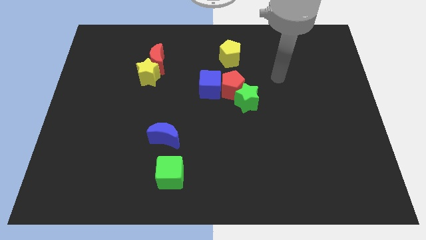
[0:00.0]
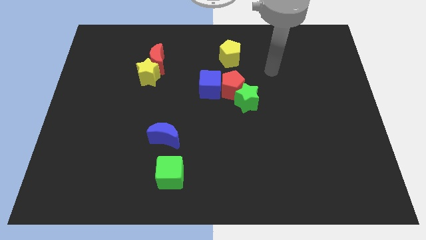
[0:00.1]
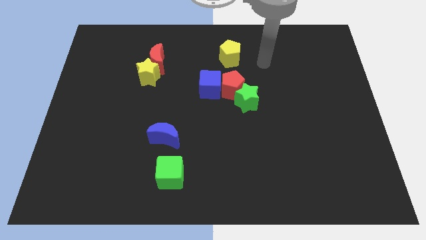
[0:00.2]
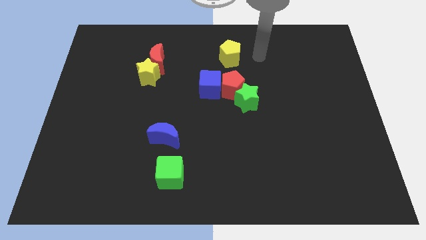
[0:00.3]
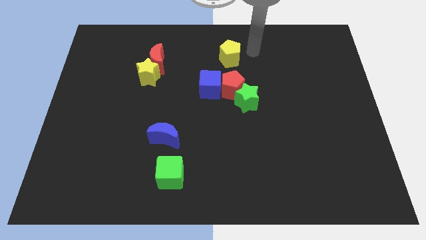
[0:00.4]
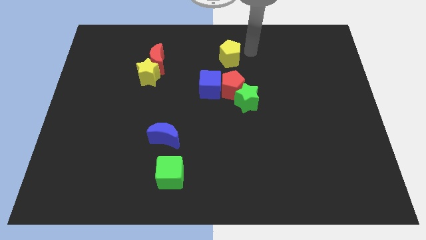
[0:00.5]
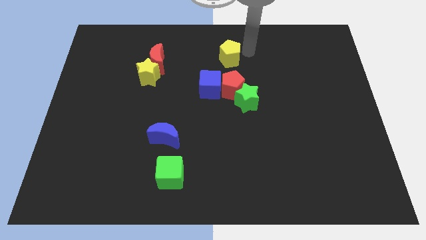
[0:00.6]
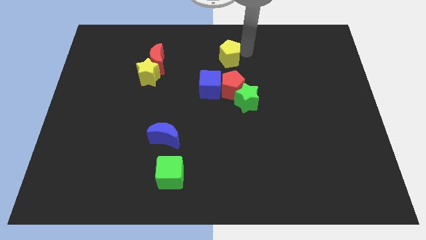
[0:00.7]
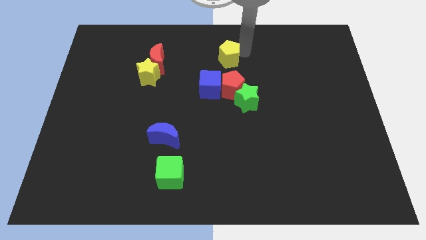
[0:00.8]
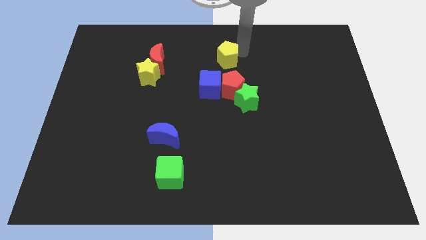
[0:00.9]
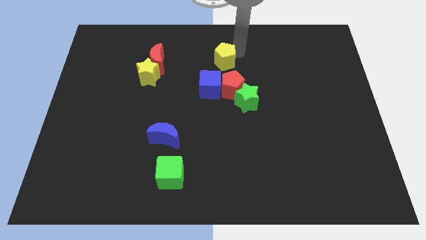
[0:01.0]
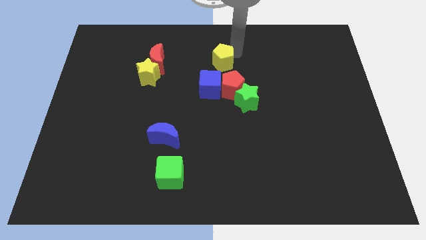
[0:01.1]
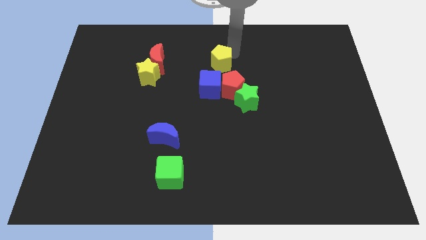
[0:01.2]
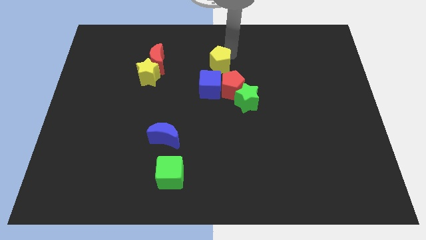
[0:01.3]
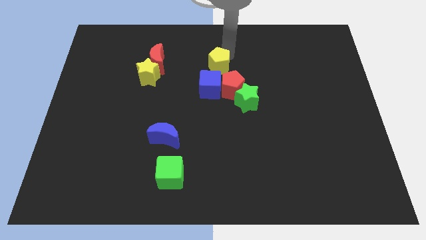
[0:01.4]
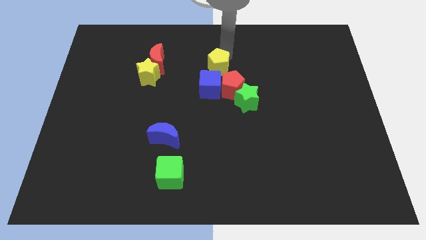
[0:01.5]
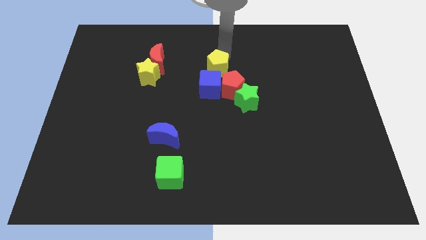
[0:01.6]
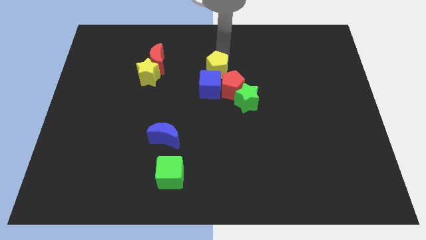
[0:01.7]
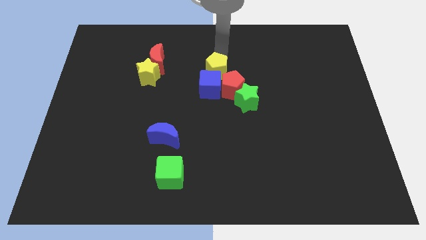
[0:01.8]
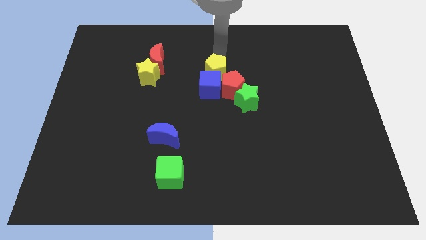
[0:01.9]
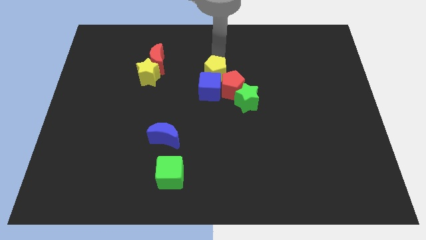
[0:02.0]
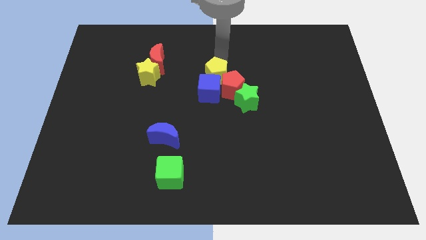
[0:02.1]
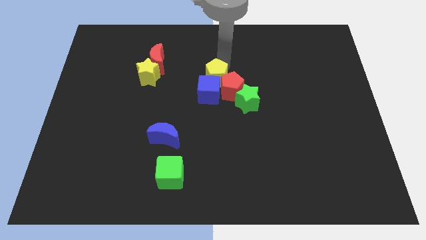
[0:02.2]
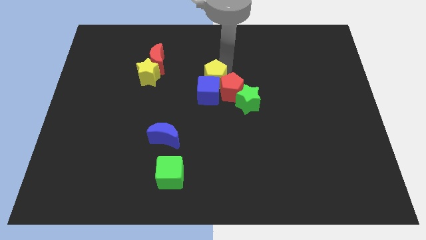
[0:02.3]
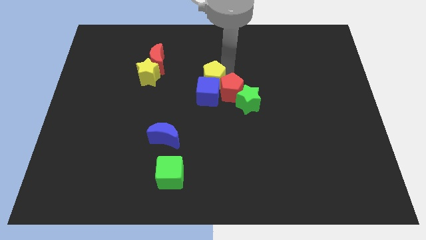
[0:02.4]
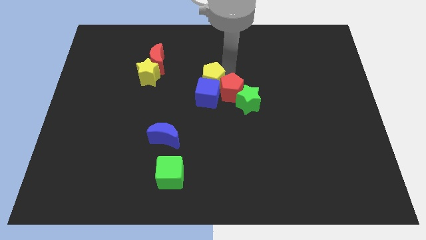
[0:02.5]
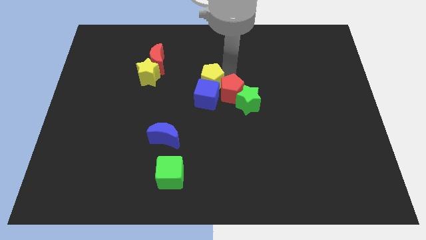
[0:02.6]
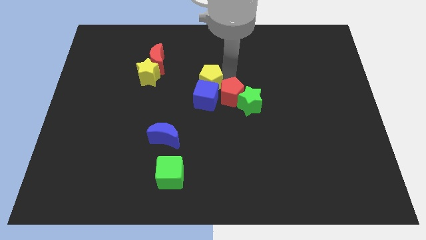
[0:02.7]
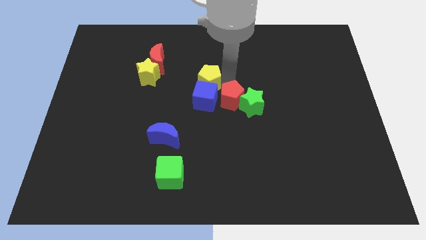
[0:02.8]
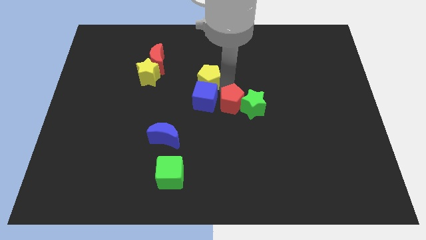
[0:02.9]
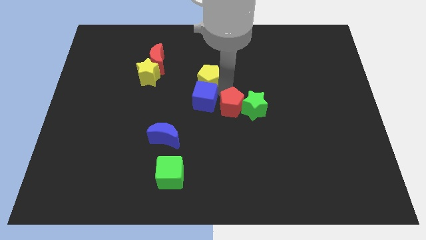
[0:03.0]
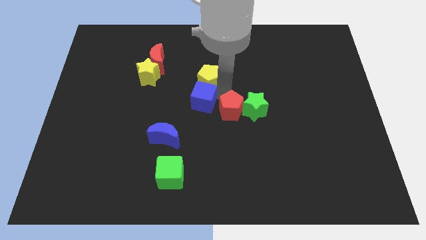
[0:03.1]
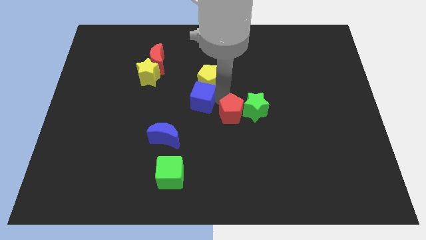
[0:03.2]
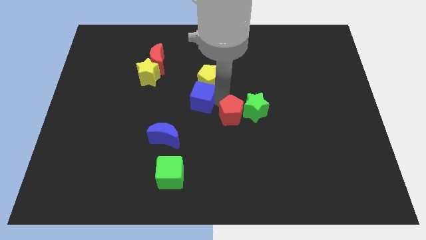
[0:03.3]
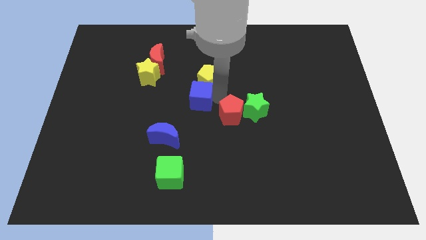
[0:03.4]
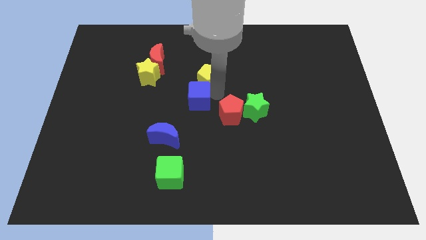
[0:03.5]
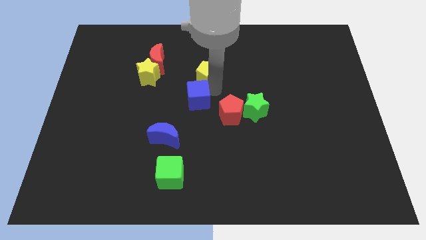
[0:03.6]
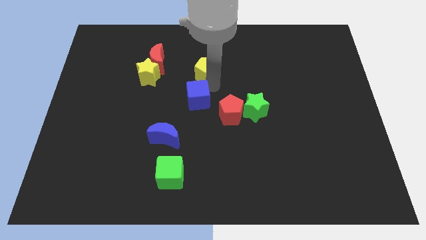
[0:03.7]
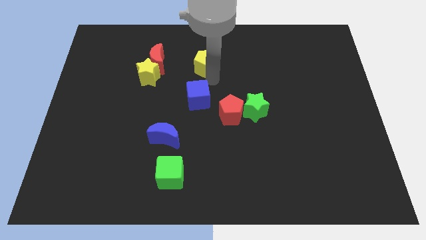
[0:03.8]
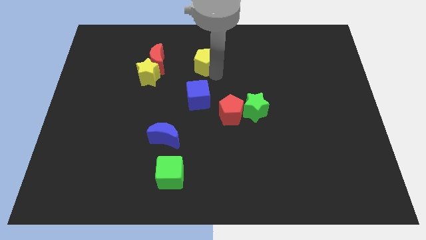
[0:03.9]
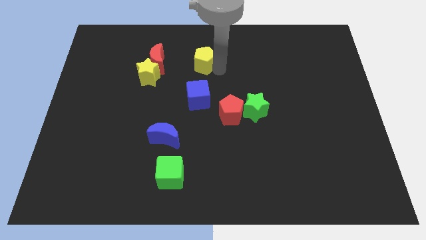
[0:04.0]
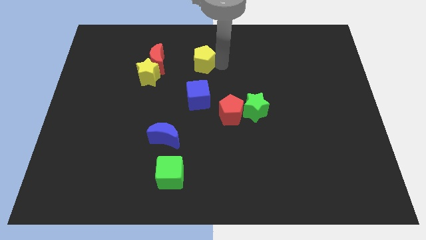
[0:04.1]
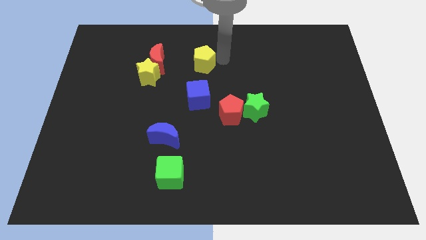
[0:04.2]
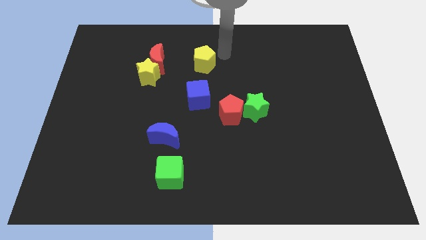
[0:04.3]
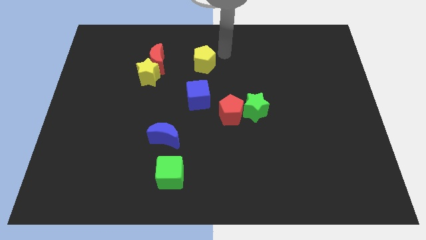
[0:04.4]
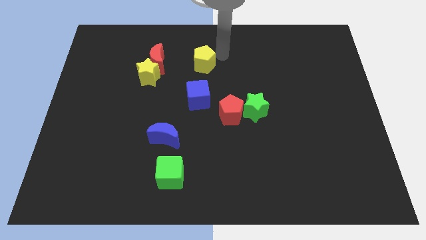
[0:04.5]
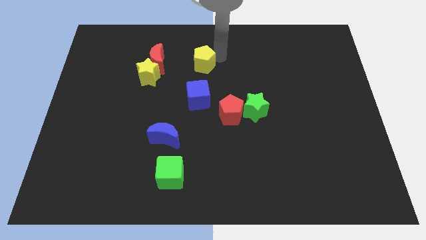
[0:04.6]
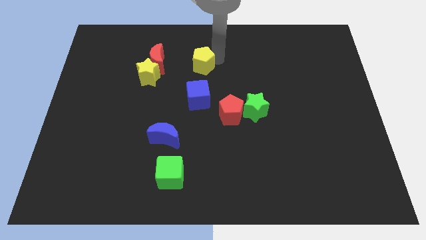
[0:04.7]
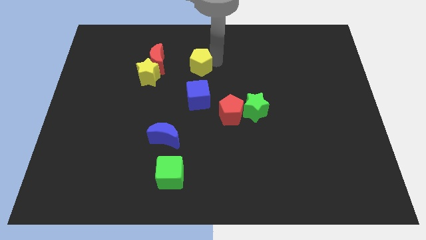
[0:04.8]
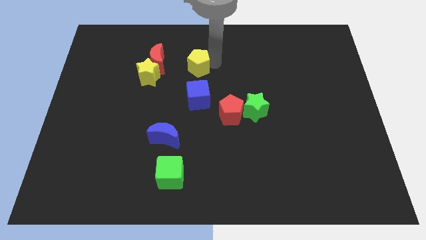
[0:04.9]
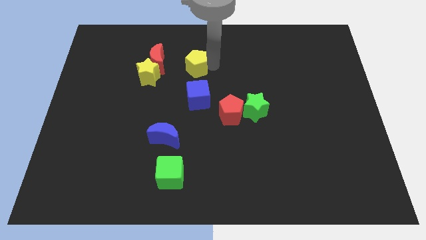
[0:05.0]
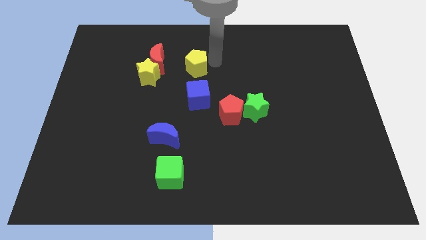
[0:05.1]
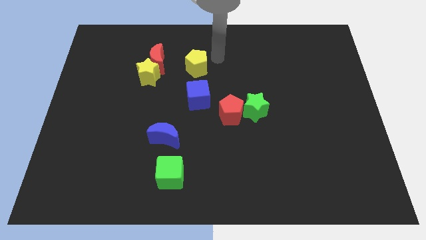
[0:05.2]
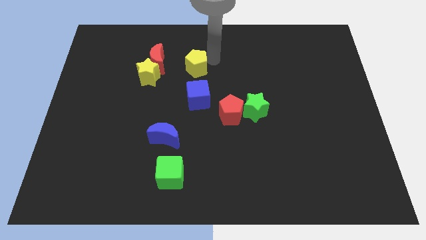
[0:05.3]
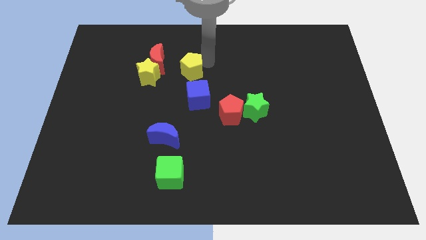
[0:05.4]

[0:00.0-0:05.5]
move the yellow pentagon diagonally down and to the right of the red moon

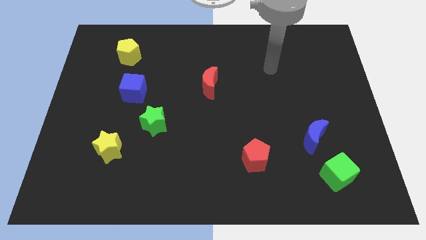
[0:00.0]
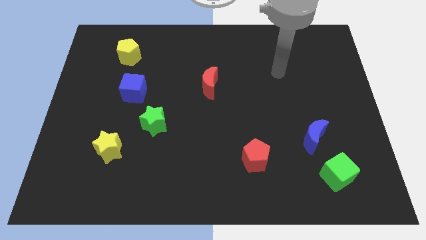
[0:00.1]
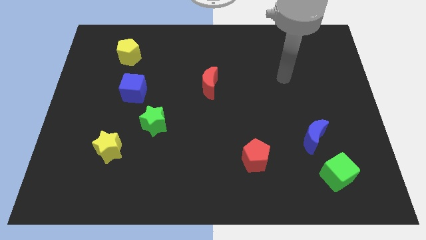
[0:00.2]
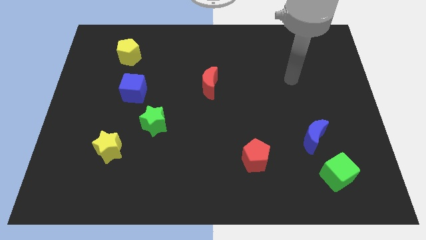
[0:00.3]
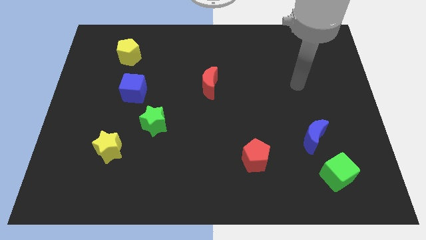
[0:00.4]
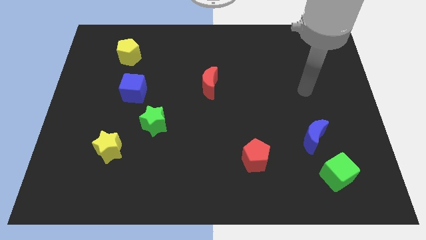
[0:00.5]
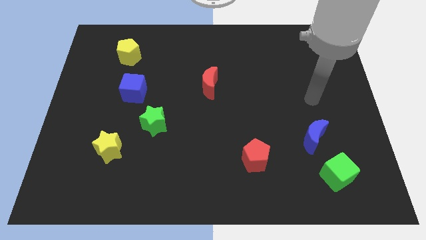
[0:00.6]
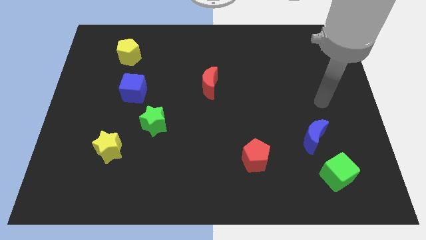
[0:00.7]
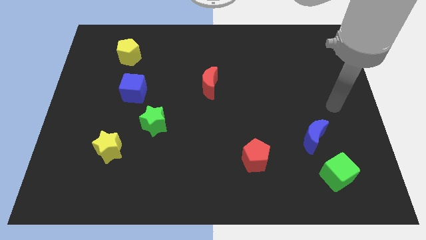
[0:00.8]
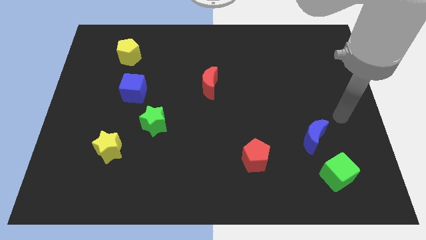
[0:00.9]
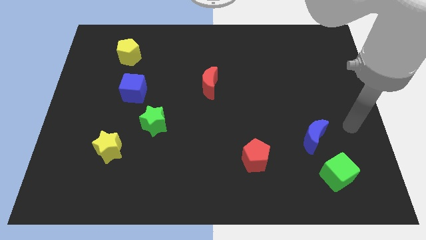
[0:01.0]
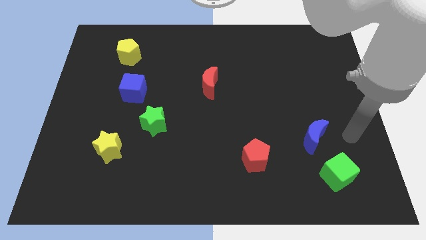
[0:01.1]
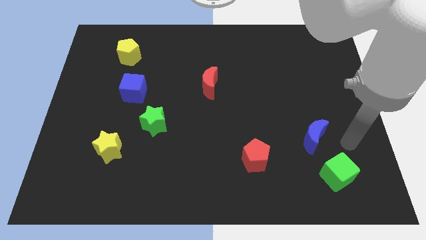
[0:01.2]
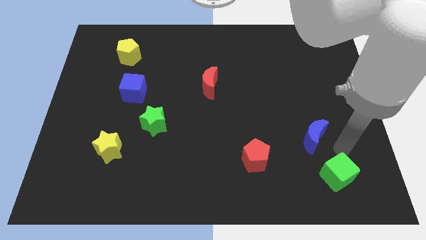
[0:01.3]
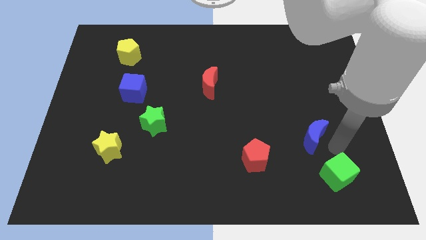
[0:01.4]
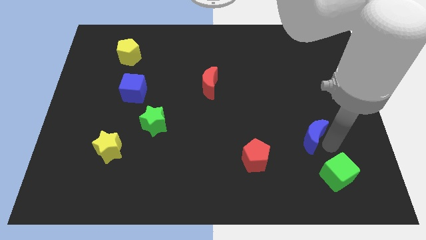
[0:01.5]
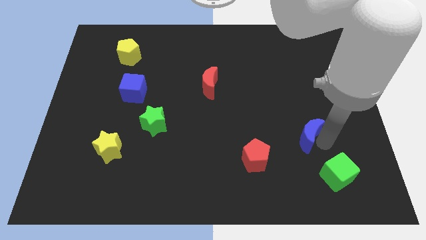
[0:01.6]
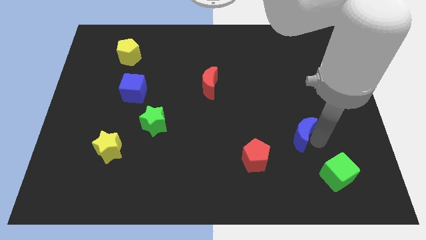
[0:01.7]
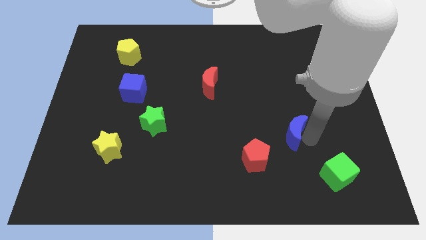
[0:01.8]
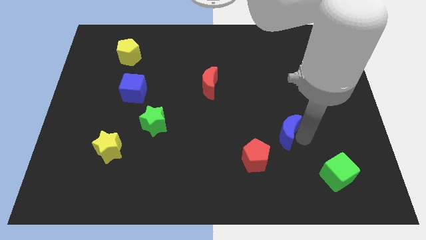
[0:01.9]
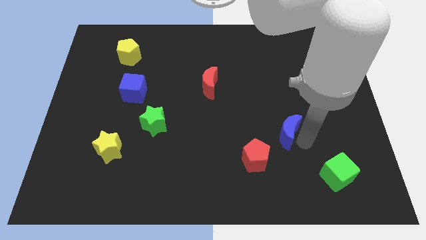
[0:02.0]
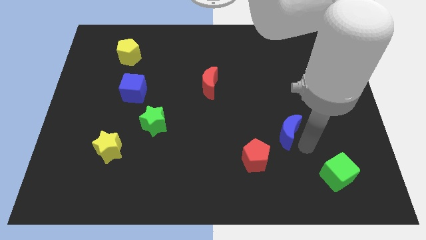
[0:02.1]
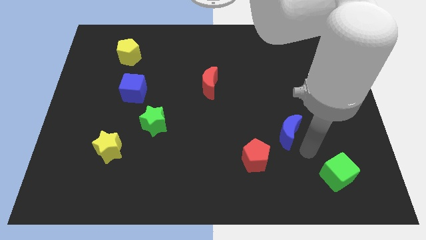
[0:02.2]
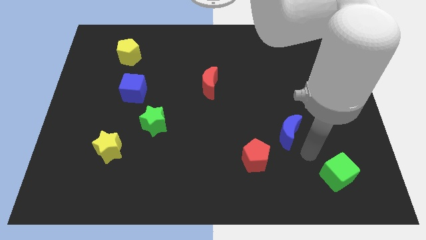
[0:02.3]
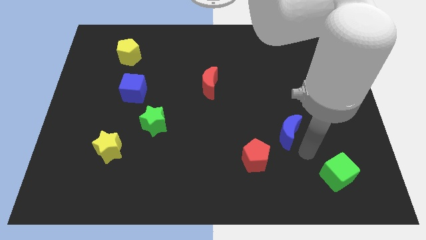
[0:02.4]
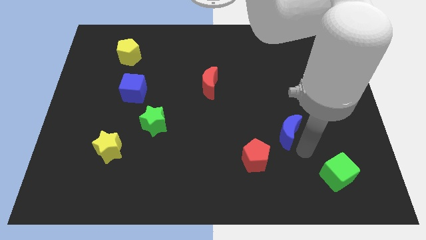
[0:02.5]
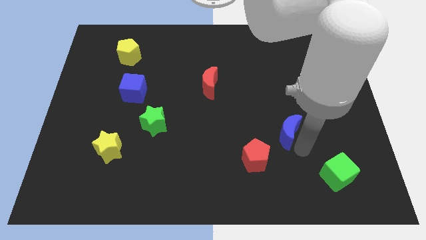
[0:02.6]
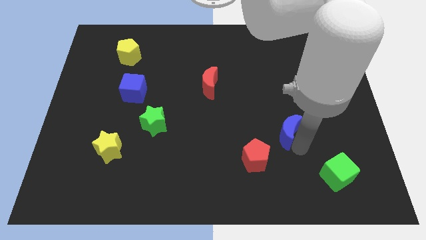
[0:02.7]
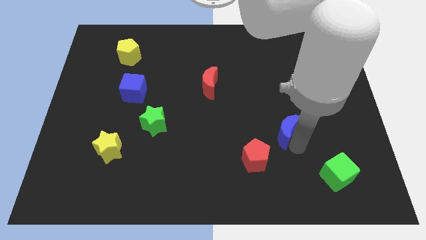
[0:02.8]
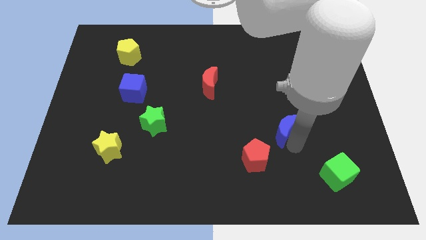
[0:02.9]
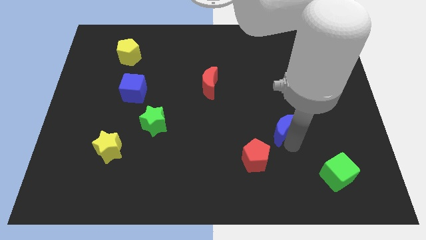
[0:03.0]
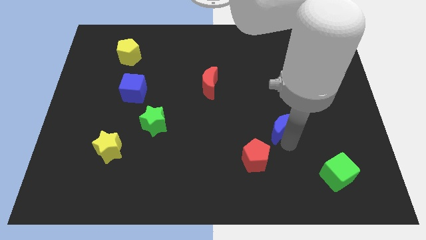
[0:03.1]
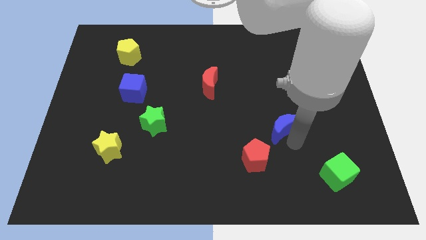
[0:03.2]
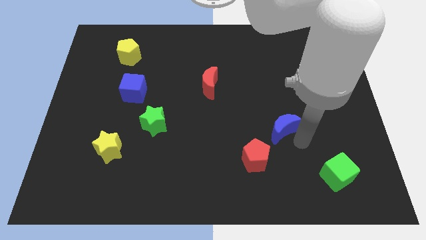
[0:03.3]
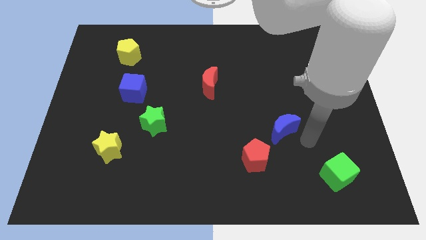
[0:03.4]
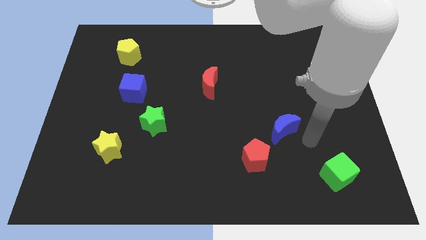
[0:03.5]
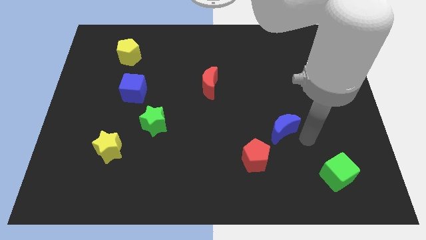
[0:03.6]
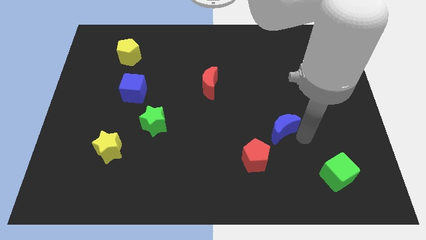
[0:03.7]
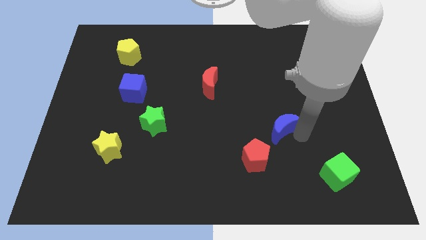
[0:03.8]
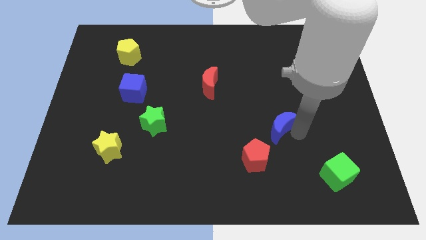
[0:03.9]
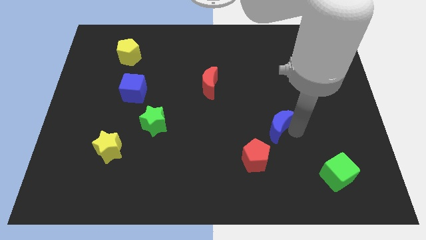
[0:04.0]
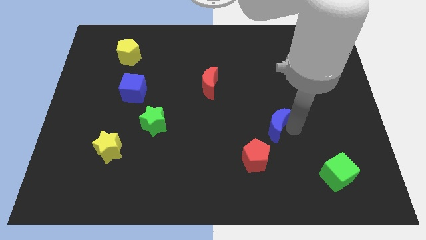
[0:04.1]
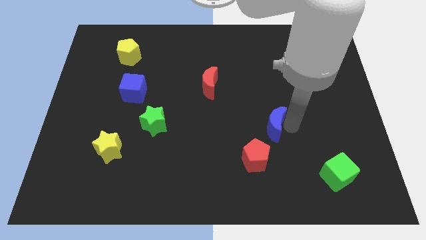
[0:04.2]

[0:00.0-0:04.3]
move the blue moon above the red pentagon
